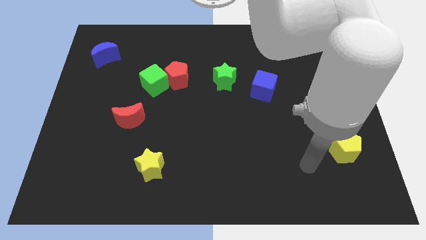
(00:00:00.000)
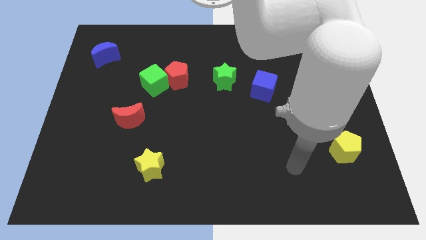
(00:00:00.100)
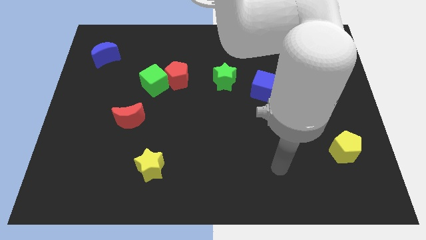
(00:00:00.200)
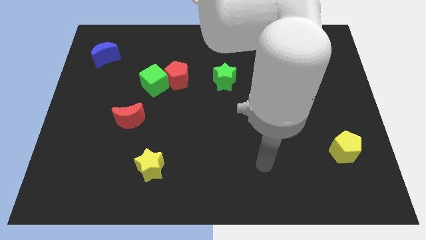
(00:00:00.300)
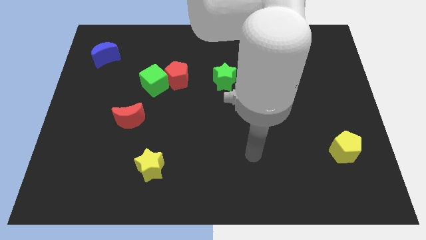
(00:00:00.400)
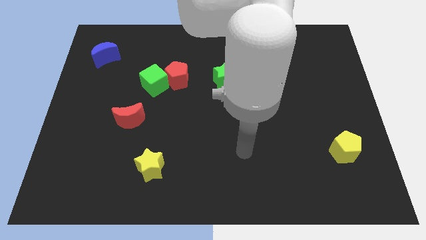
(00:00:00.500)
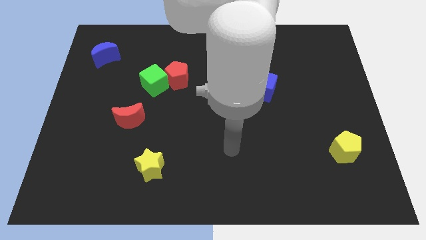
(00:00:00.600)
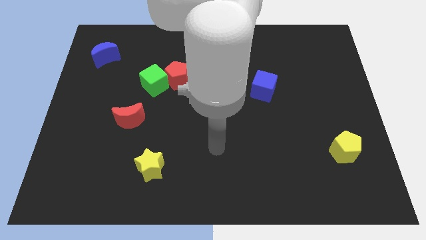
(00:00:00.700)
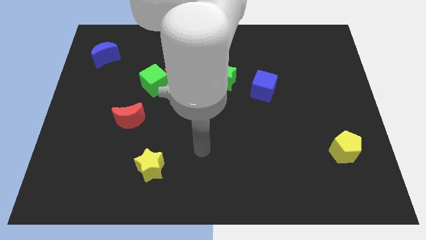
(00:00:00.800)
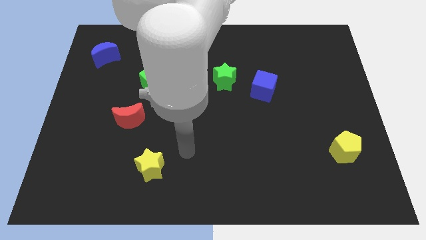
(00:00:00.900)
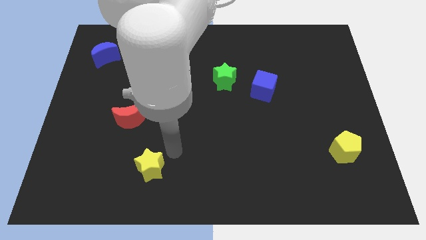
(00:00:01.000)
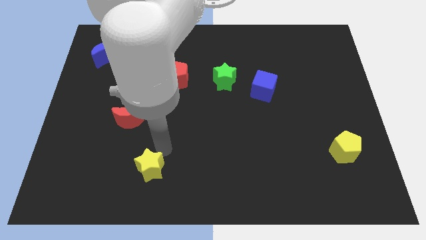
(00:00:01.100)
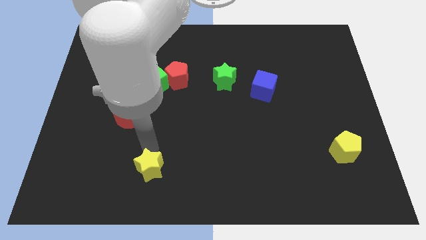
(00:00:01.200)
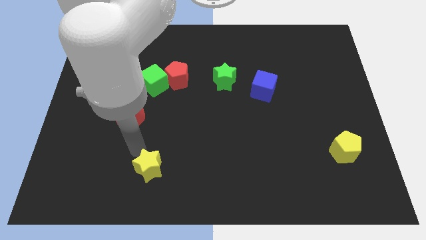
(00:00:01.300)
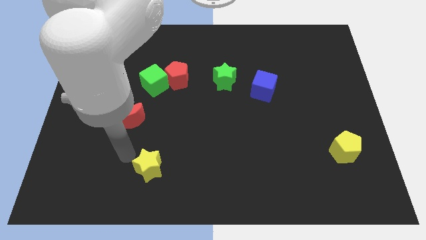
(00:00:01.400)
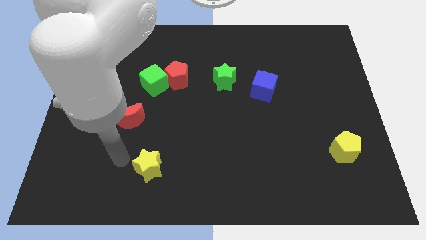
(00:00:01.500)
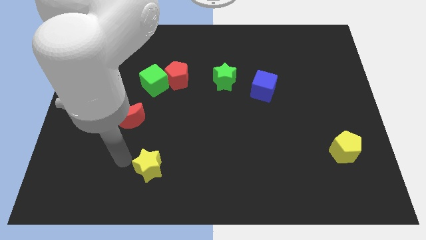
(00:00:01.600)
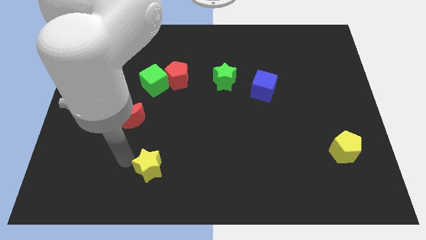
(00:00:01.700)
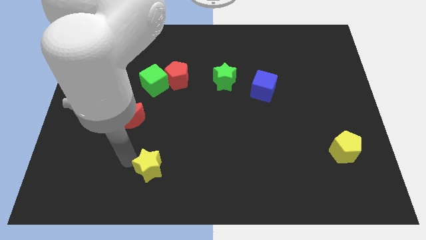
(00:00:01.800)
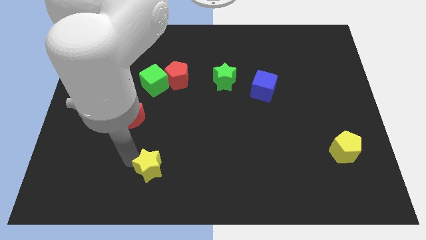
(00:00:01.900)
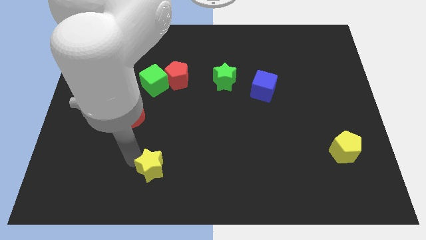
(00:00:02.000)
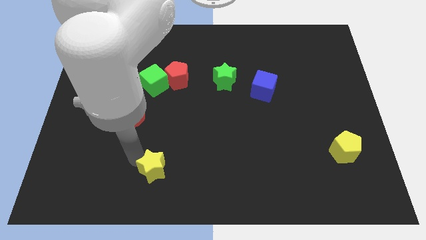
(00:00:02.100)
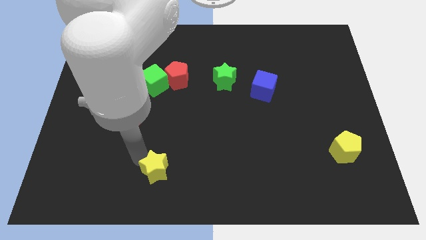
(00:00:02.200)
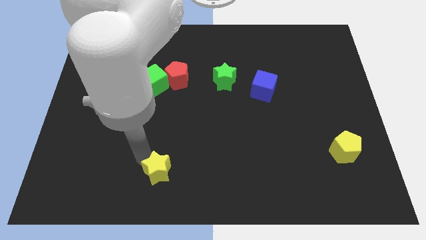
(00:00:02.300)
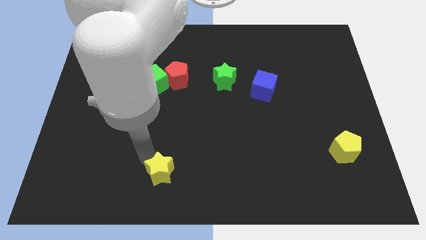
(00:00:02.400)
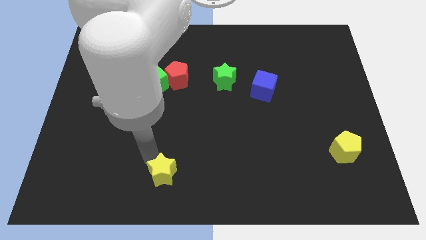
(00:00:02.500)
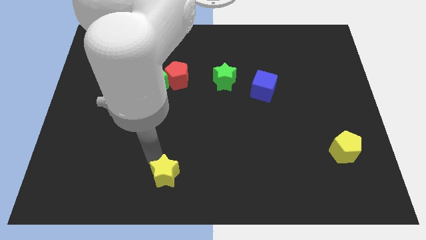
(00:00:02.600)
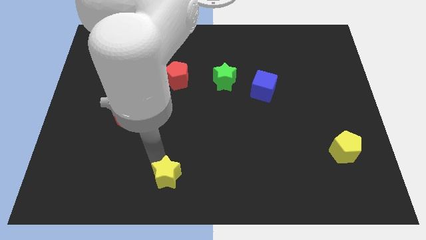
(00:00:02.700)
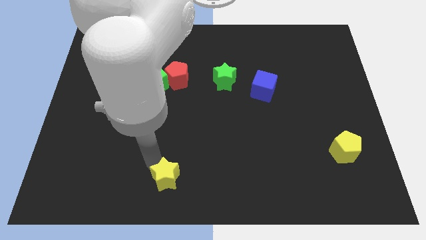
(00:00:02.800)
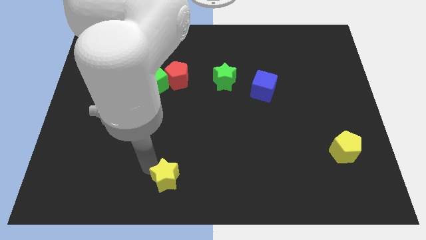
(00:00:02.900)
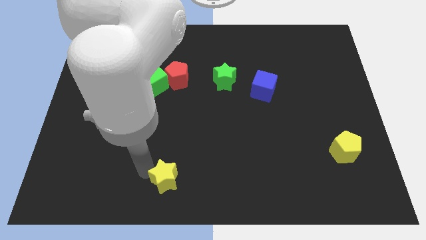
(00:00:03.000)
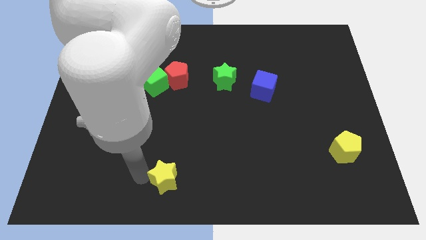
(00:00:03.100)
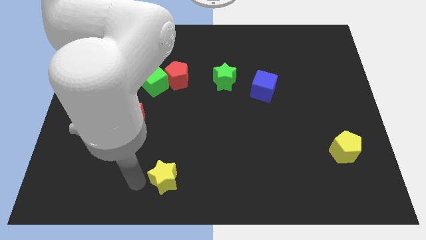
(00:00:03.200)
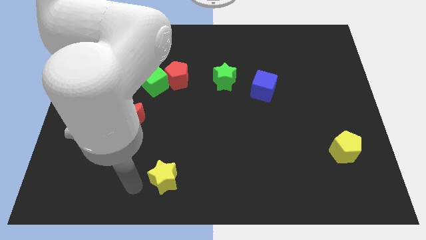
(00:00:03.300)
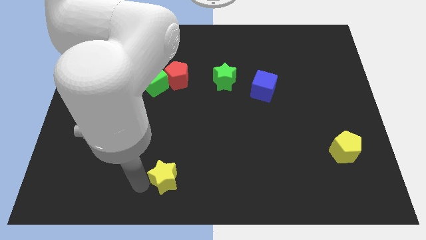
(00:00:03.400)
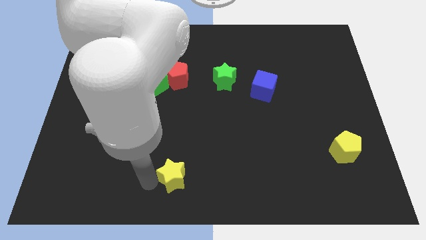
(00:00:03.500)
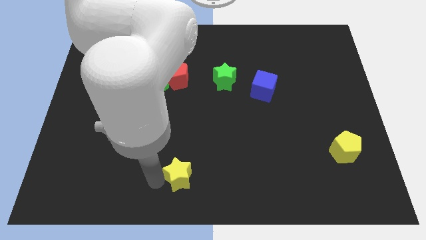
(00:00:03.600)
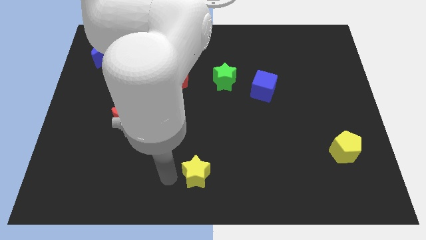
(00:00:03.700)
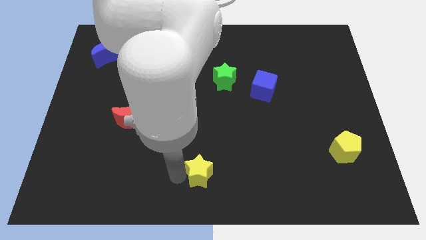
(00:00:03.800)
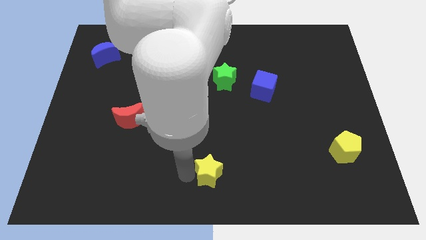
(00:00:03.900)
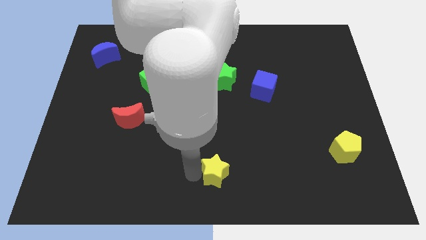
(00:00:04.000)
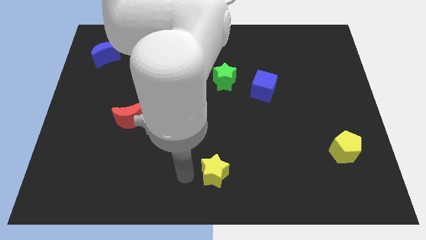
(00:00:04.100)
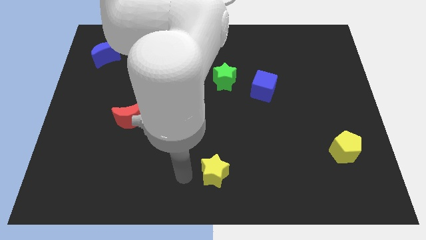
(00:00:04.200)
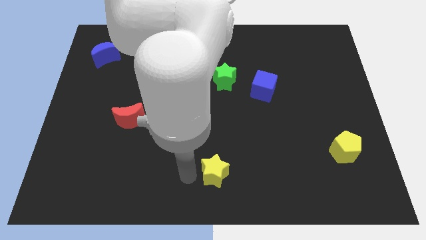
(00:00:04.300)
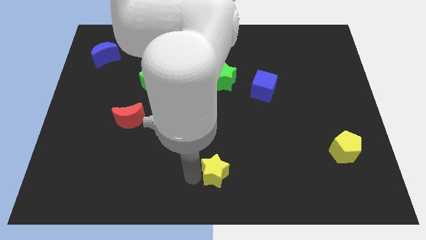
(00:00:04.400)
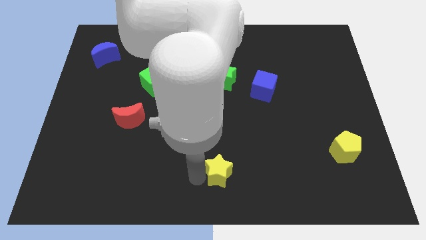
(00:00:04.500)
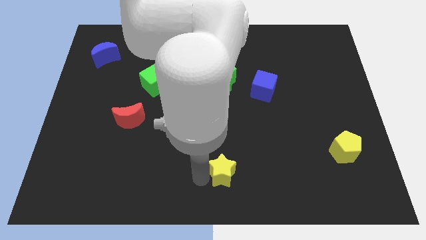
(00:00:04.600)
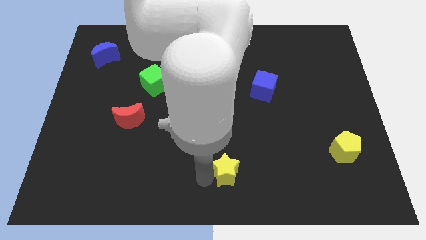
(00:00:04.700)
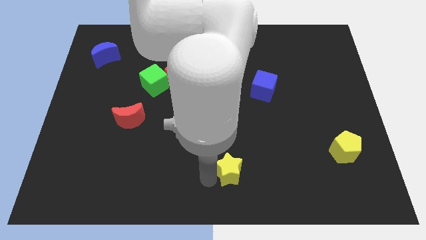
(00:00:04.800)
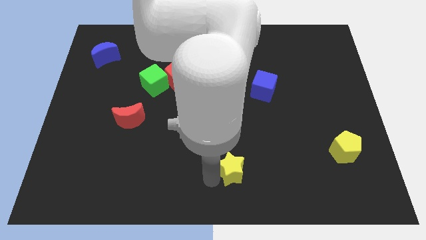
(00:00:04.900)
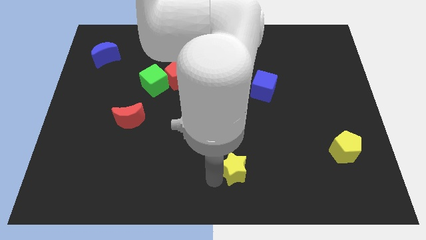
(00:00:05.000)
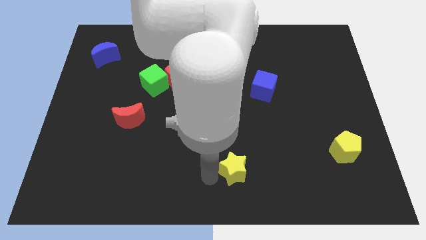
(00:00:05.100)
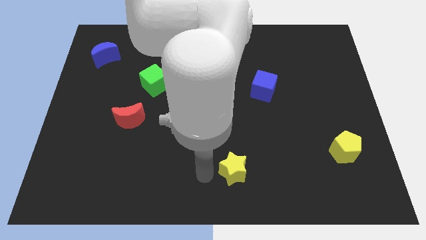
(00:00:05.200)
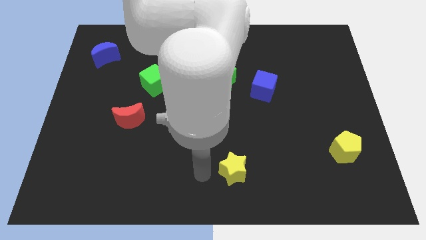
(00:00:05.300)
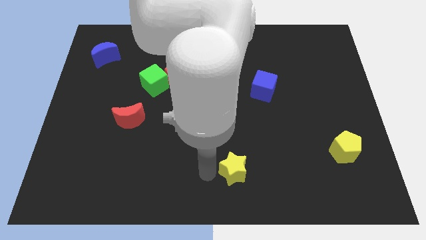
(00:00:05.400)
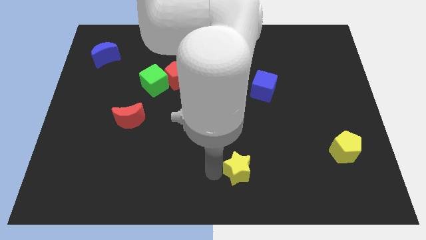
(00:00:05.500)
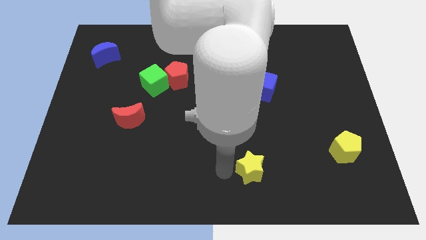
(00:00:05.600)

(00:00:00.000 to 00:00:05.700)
slide the yellow star to the right

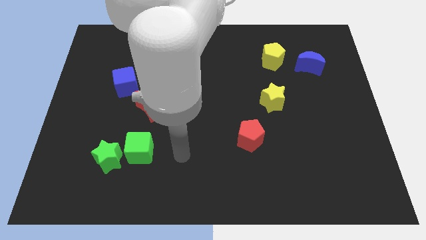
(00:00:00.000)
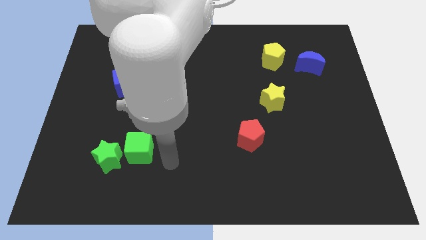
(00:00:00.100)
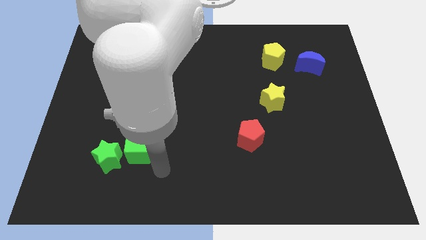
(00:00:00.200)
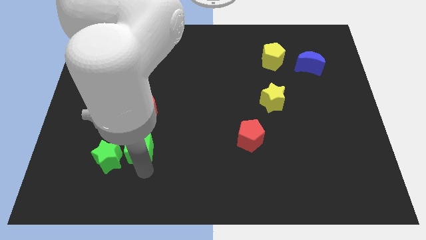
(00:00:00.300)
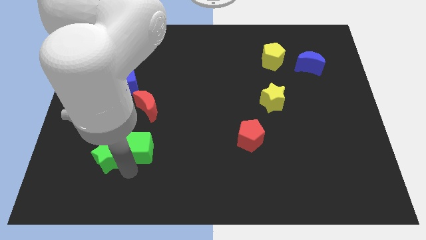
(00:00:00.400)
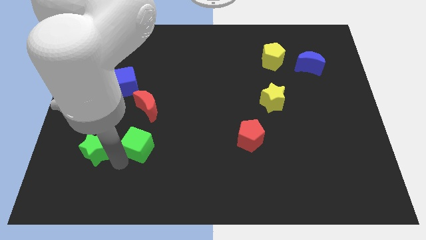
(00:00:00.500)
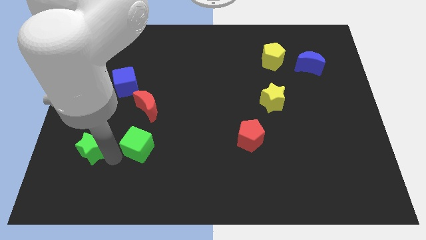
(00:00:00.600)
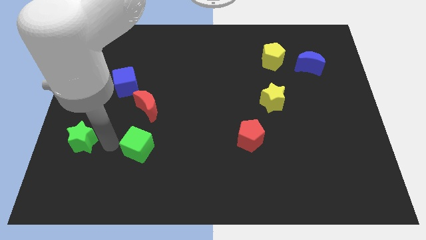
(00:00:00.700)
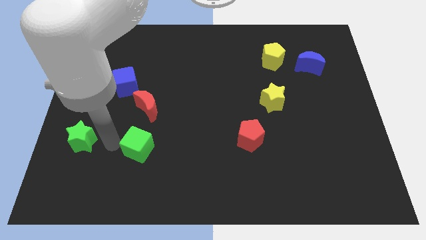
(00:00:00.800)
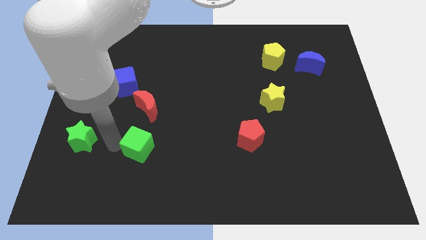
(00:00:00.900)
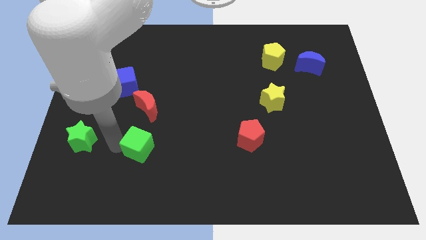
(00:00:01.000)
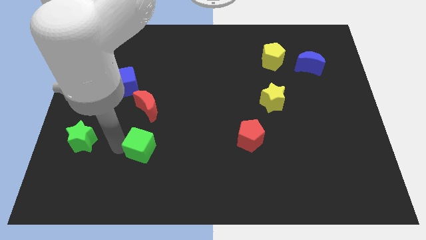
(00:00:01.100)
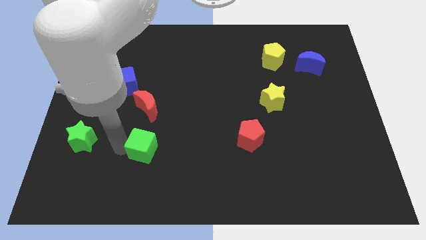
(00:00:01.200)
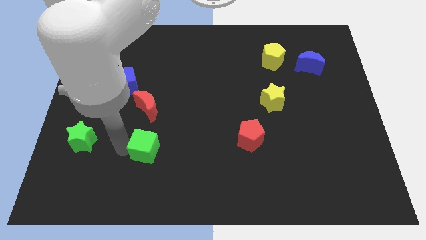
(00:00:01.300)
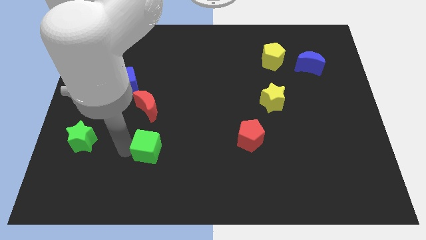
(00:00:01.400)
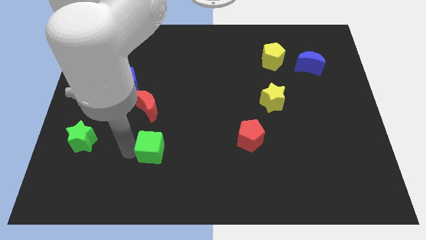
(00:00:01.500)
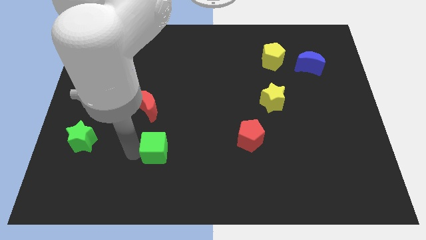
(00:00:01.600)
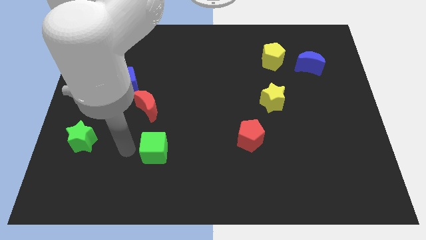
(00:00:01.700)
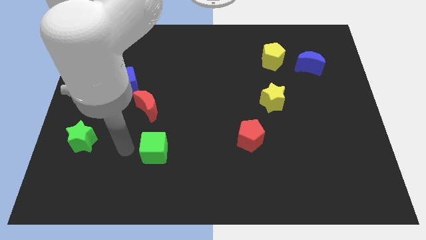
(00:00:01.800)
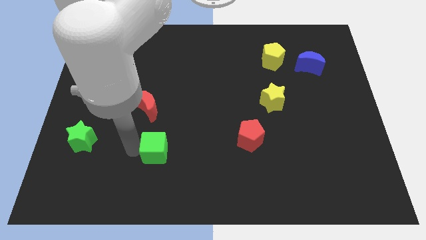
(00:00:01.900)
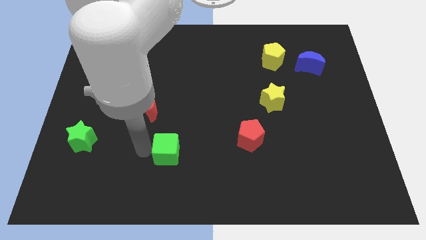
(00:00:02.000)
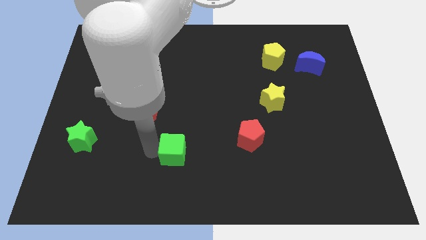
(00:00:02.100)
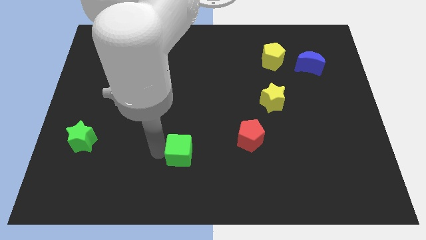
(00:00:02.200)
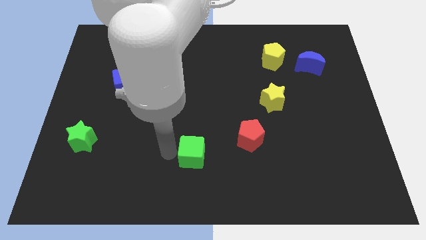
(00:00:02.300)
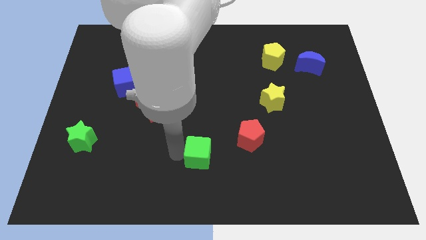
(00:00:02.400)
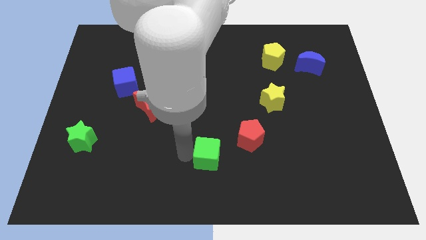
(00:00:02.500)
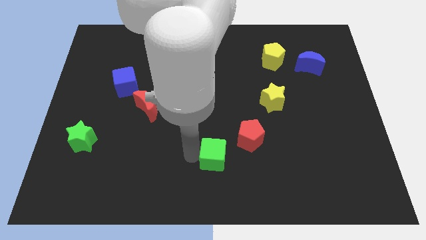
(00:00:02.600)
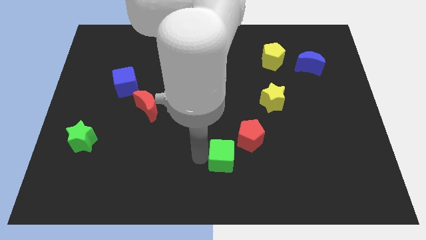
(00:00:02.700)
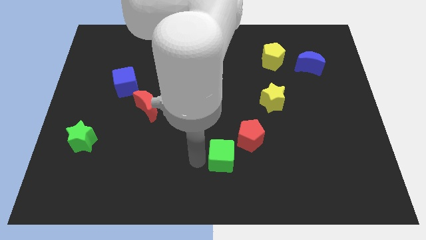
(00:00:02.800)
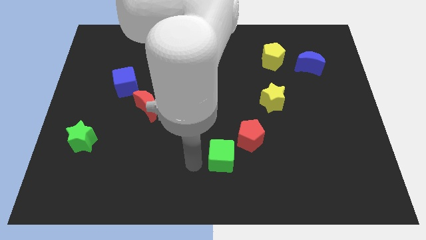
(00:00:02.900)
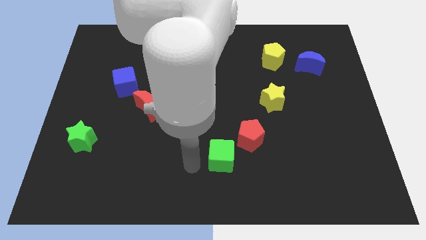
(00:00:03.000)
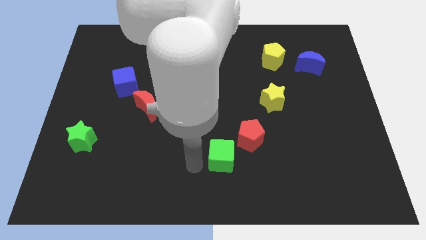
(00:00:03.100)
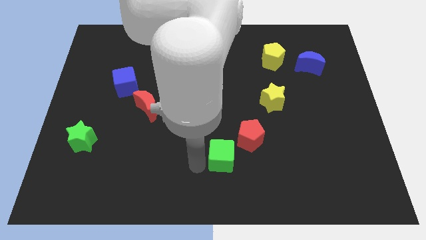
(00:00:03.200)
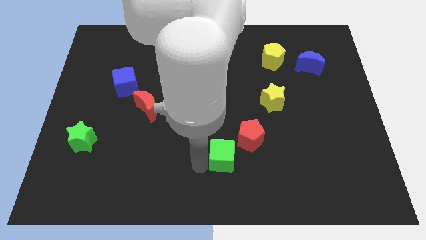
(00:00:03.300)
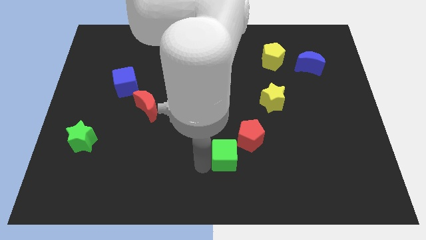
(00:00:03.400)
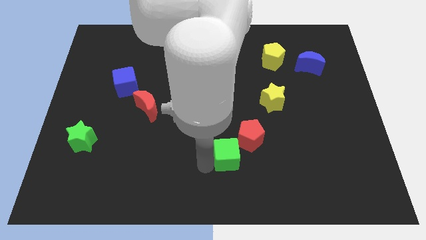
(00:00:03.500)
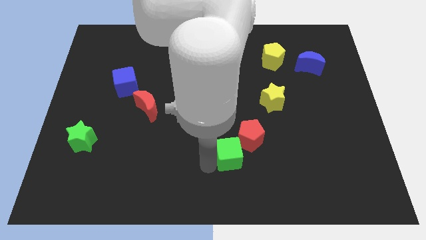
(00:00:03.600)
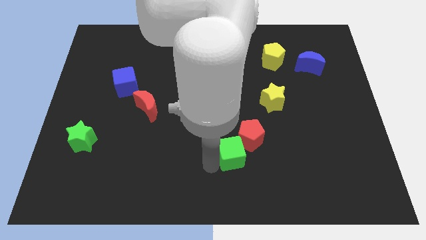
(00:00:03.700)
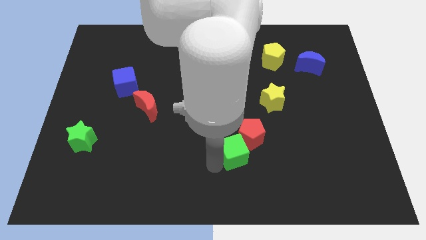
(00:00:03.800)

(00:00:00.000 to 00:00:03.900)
push the green cube right
